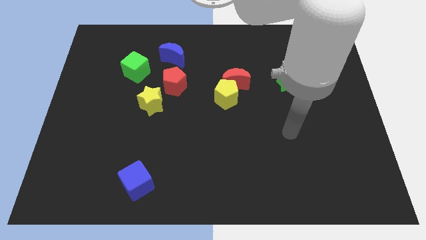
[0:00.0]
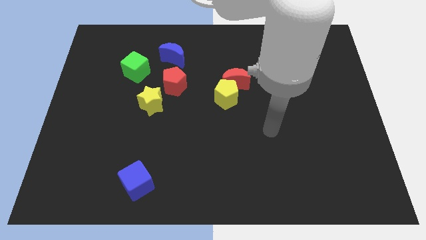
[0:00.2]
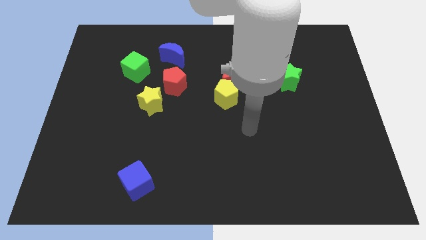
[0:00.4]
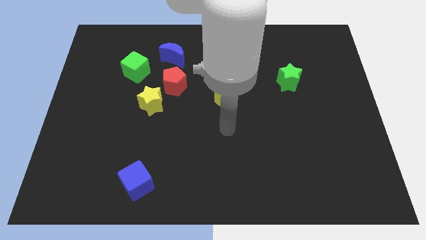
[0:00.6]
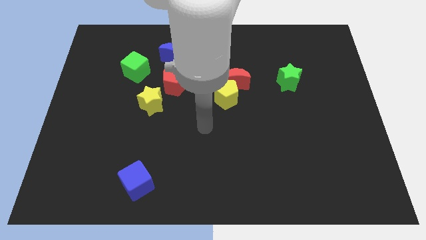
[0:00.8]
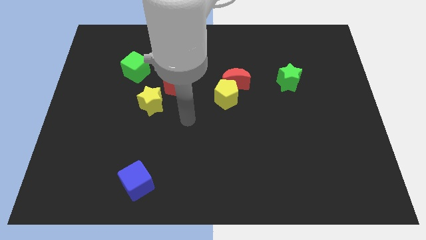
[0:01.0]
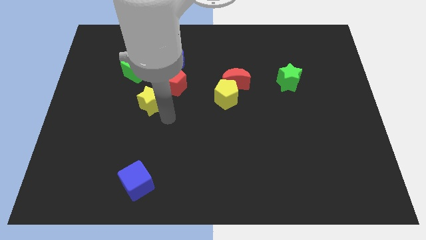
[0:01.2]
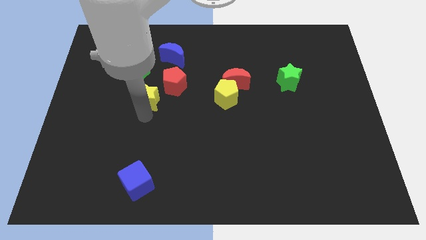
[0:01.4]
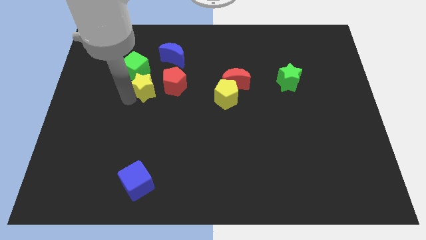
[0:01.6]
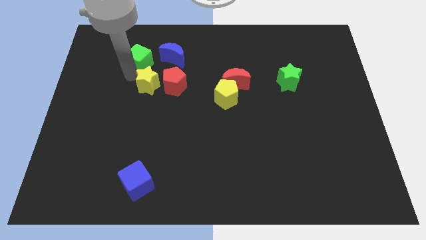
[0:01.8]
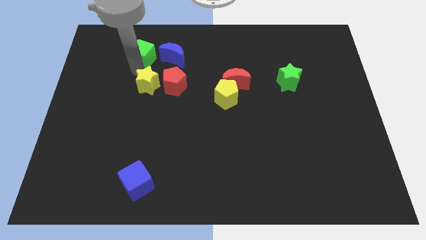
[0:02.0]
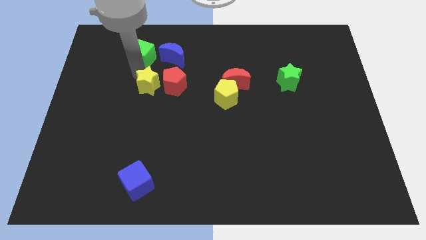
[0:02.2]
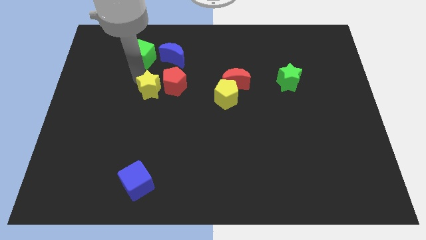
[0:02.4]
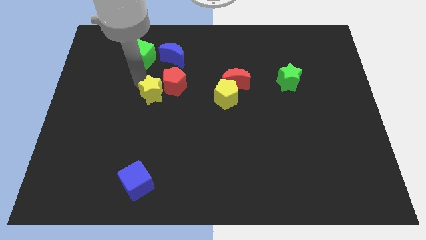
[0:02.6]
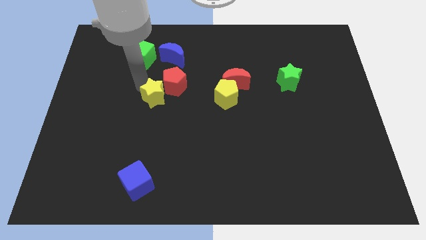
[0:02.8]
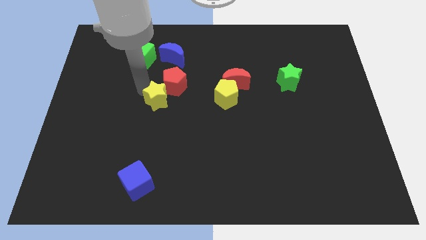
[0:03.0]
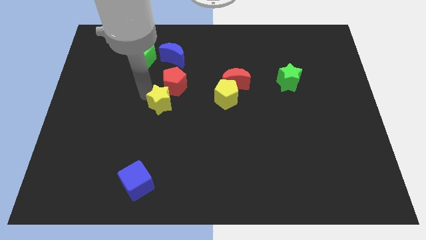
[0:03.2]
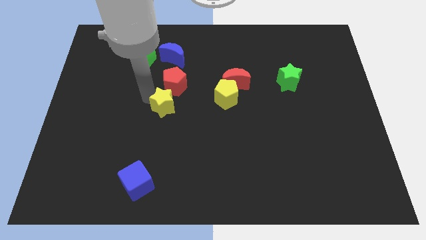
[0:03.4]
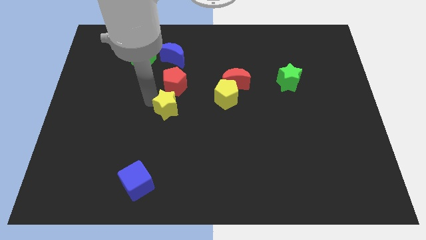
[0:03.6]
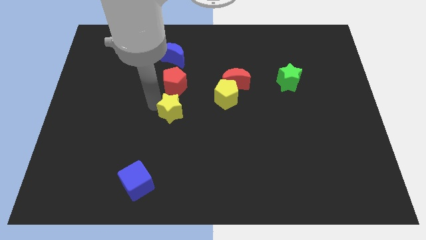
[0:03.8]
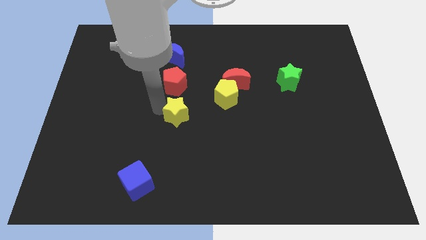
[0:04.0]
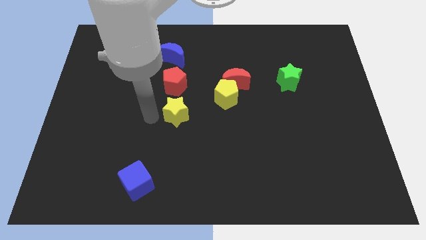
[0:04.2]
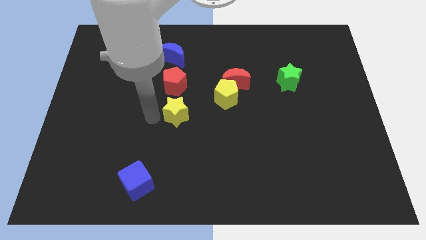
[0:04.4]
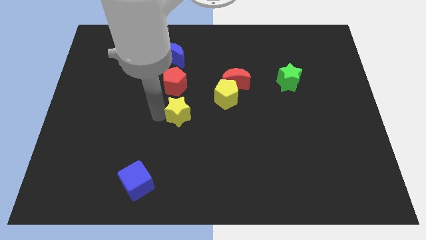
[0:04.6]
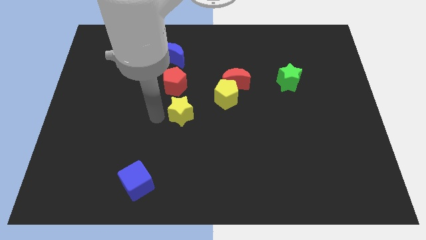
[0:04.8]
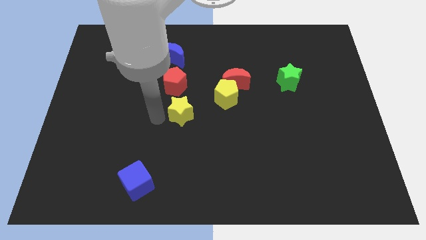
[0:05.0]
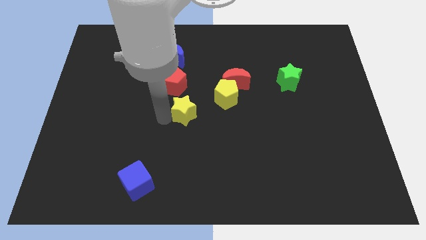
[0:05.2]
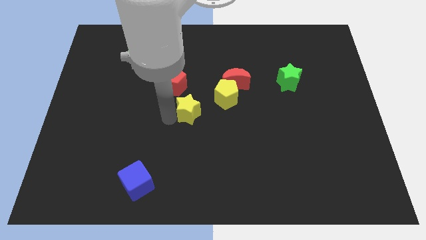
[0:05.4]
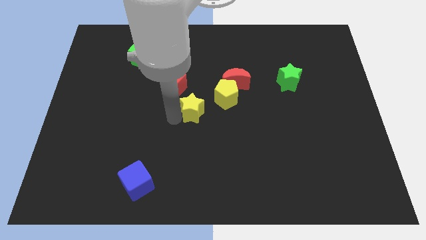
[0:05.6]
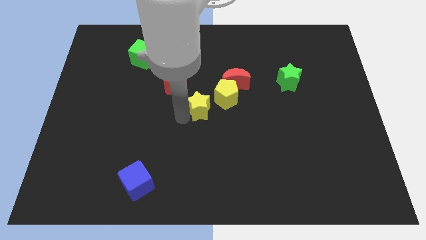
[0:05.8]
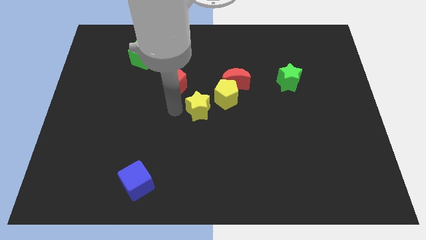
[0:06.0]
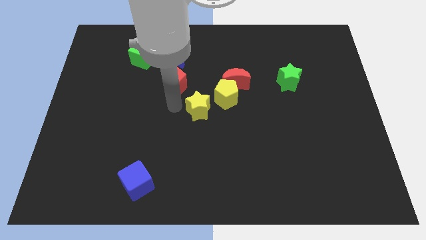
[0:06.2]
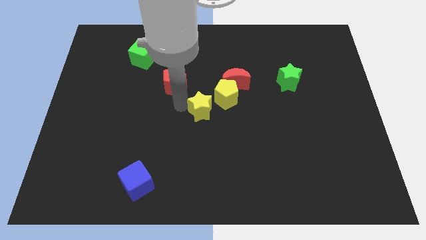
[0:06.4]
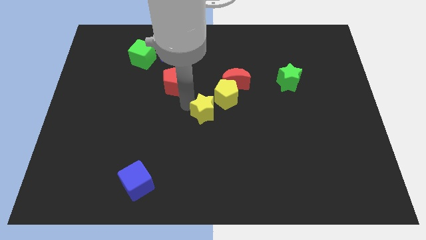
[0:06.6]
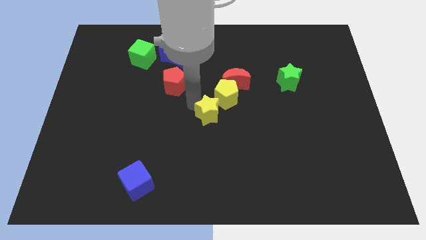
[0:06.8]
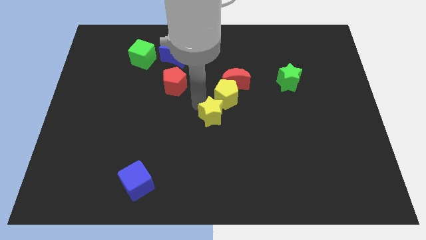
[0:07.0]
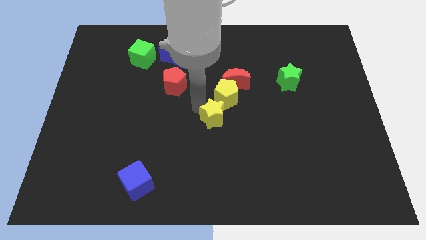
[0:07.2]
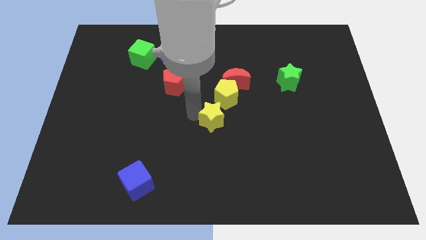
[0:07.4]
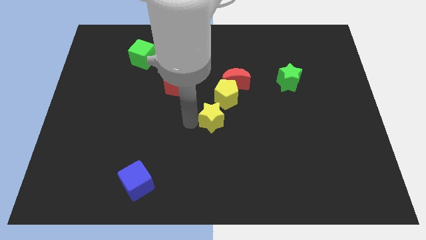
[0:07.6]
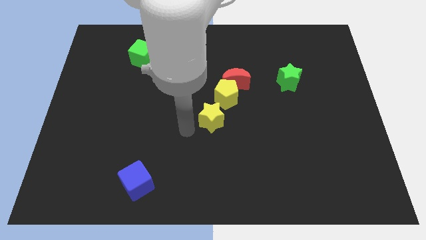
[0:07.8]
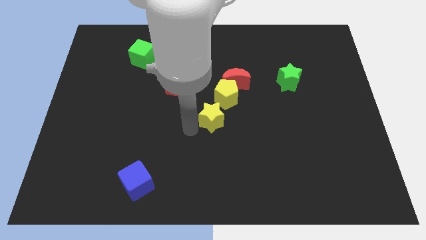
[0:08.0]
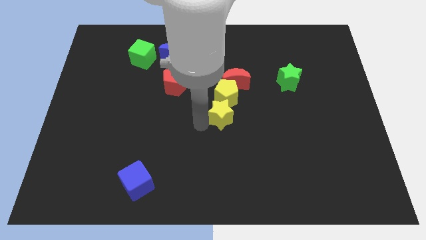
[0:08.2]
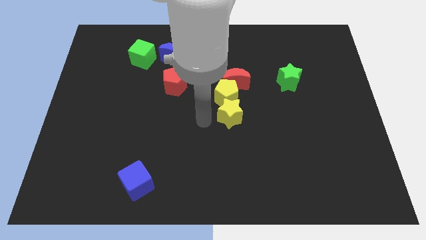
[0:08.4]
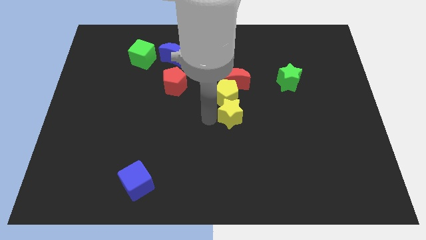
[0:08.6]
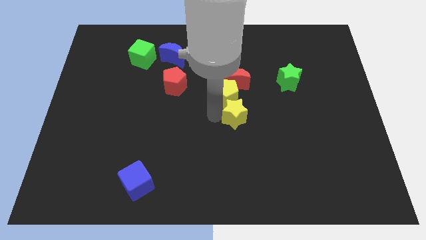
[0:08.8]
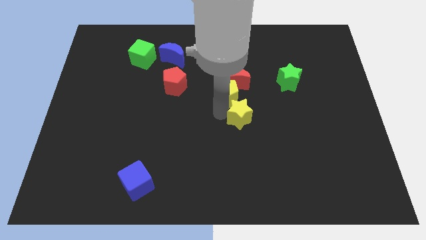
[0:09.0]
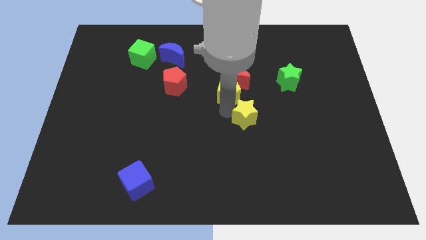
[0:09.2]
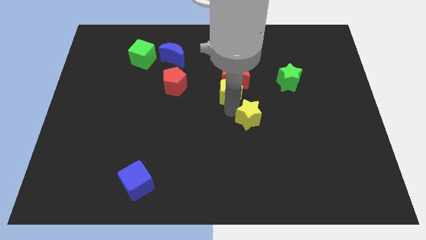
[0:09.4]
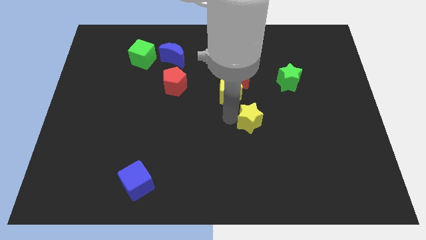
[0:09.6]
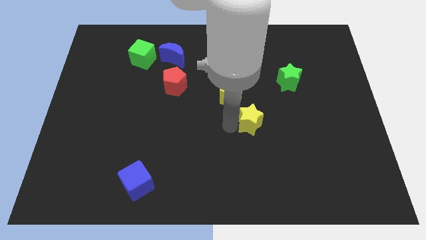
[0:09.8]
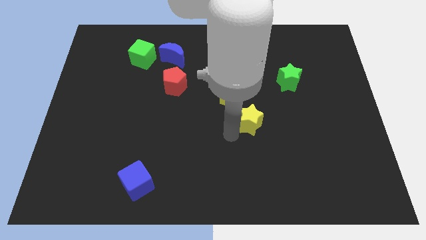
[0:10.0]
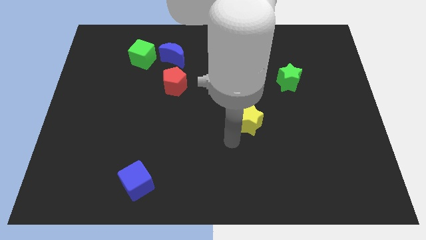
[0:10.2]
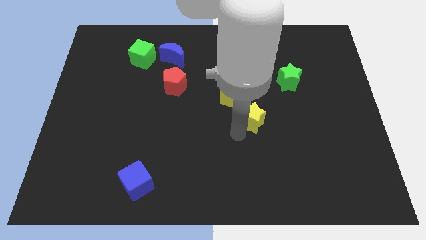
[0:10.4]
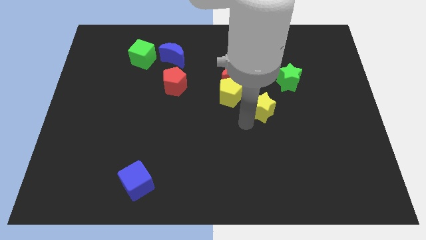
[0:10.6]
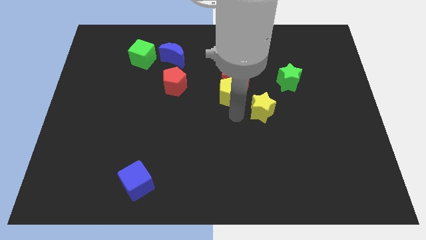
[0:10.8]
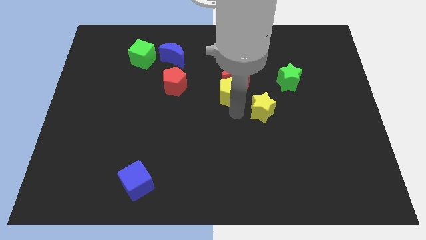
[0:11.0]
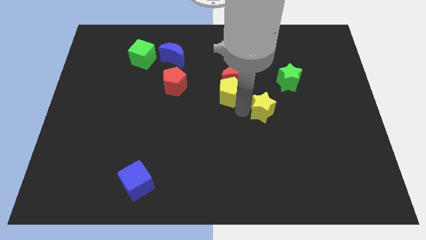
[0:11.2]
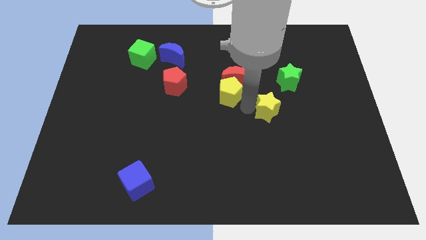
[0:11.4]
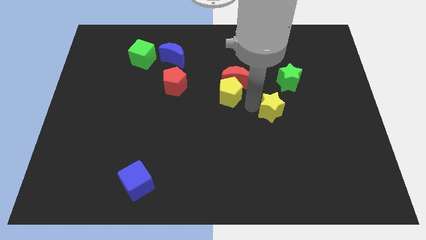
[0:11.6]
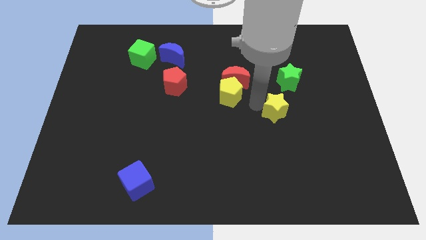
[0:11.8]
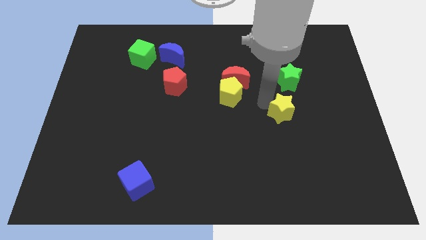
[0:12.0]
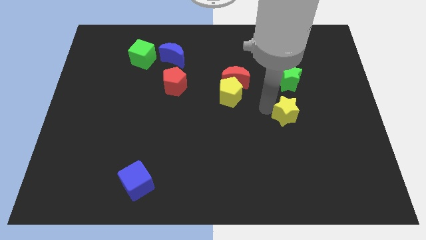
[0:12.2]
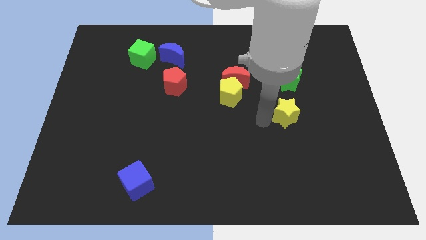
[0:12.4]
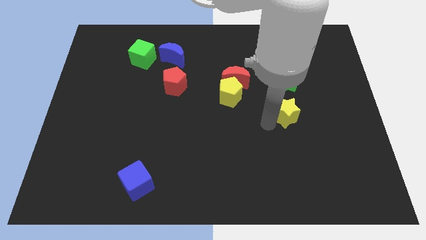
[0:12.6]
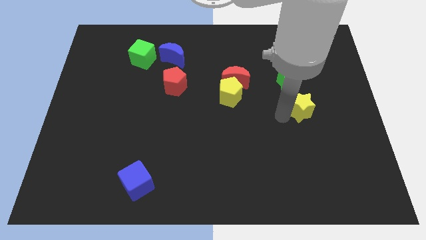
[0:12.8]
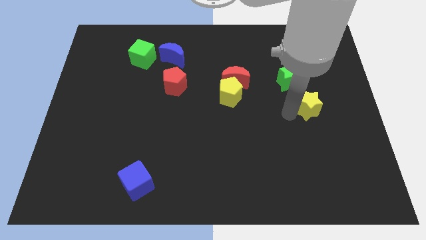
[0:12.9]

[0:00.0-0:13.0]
slide the yellow star to the bottom right of the green star

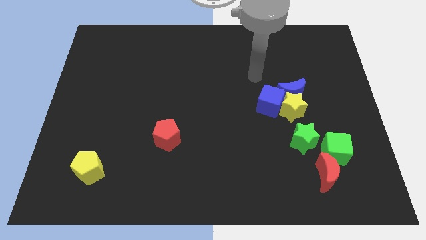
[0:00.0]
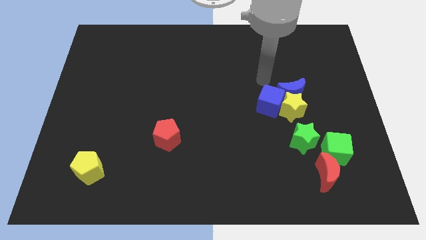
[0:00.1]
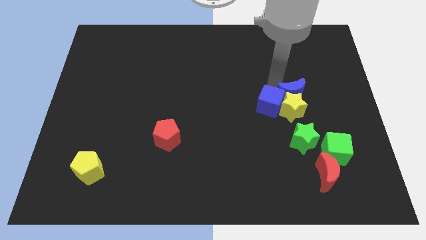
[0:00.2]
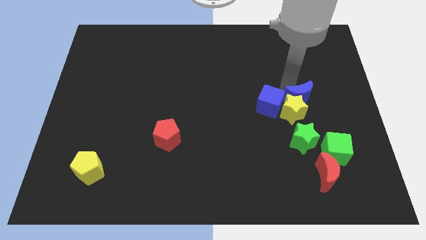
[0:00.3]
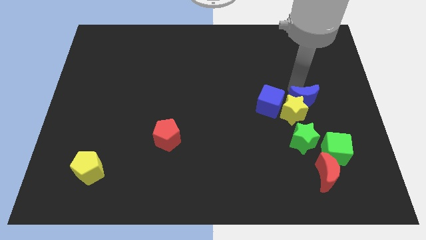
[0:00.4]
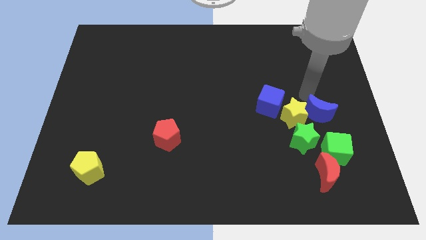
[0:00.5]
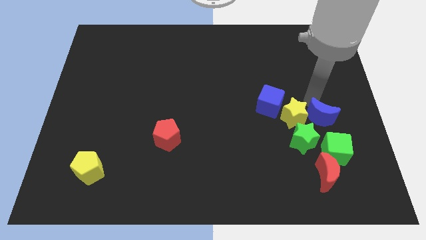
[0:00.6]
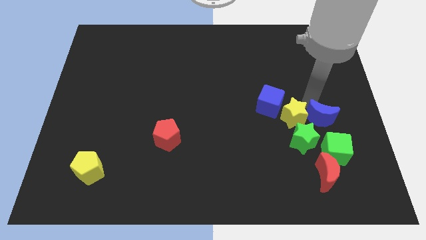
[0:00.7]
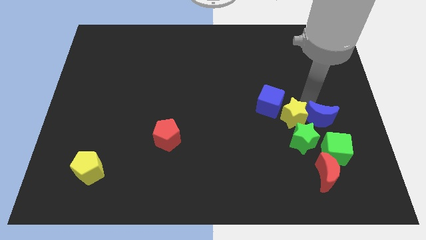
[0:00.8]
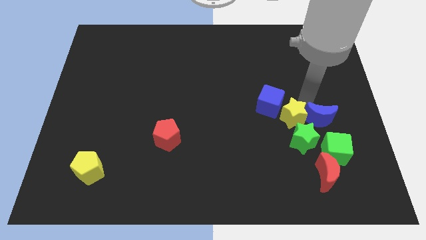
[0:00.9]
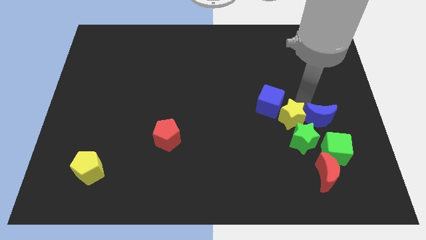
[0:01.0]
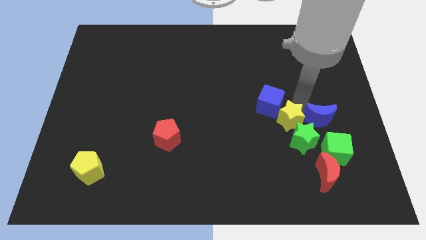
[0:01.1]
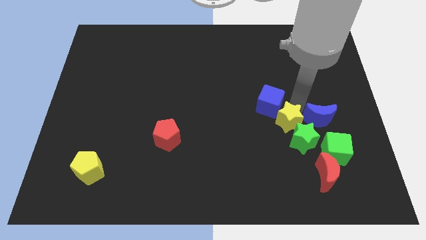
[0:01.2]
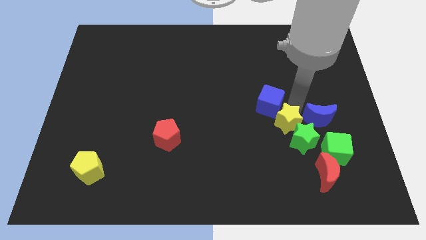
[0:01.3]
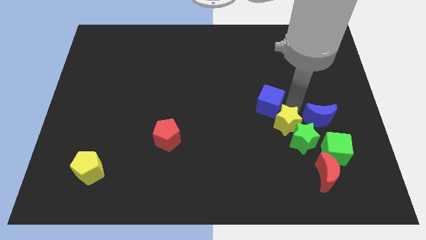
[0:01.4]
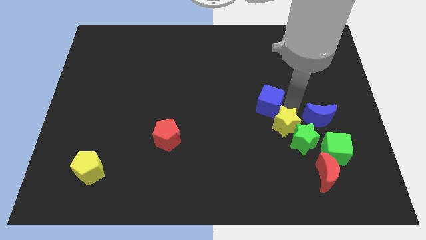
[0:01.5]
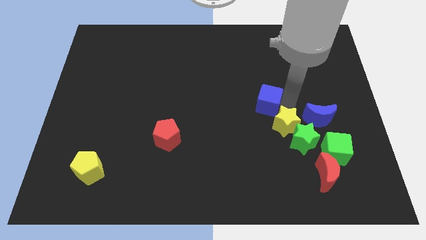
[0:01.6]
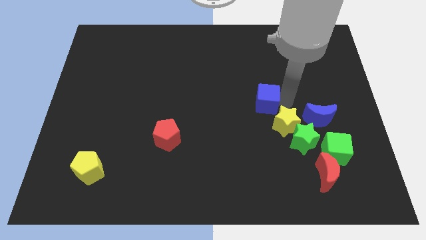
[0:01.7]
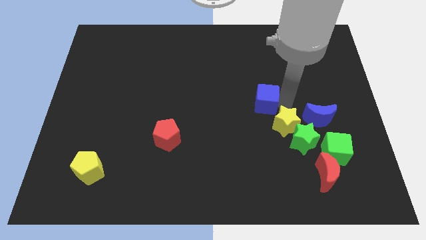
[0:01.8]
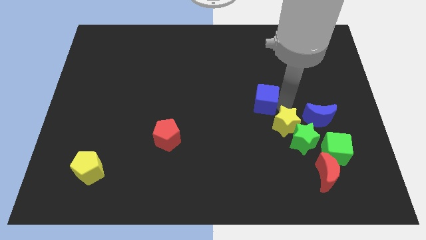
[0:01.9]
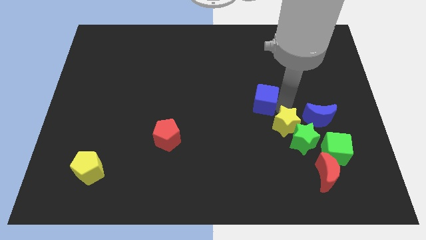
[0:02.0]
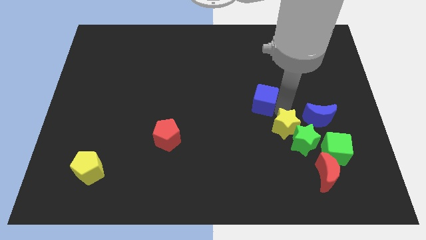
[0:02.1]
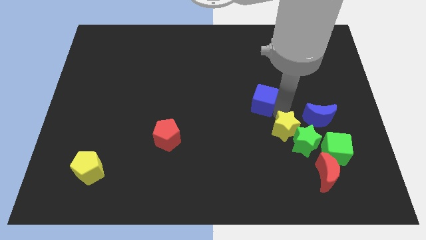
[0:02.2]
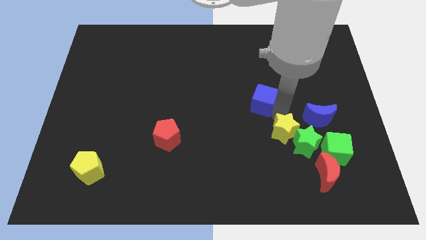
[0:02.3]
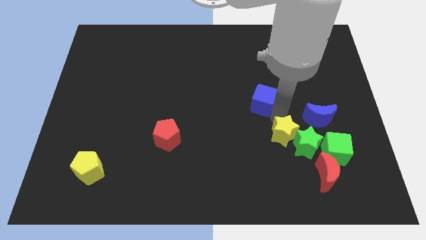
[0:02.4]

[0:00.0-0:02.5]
move the yellow star just left of the green cube
